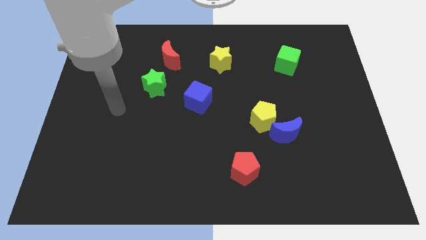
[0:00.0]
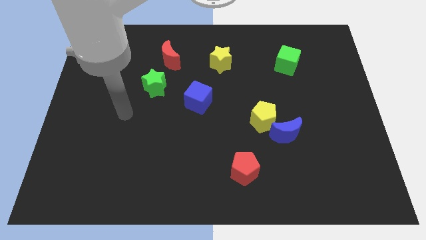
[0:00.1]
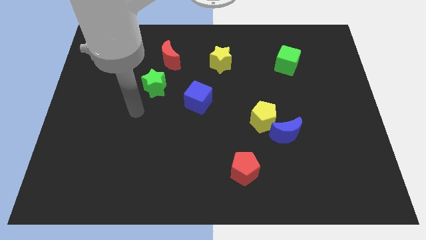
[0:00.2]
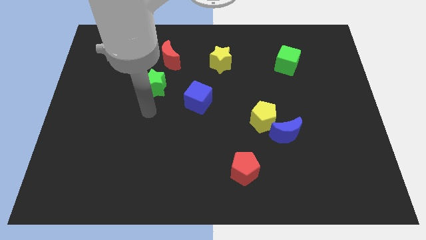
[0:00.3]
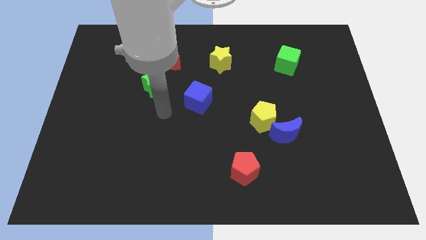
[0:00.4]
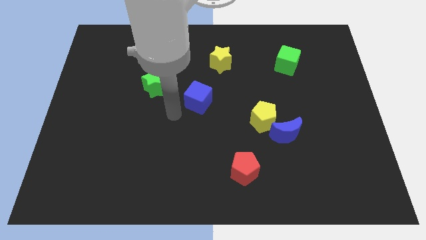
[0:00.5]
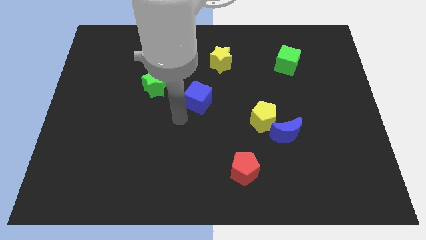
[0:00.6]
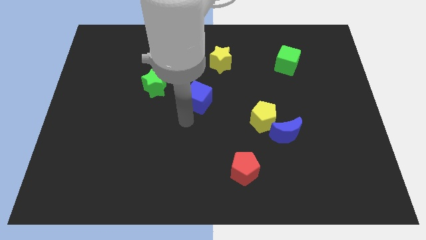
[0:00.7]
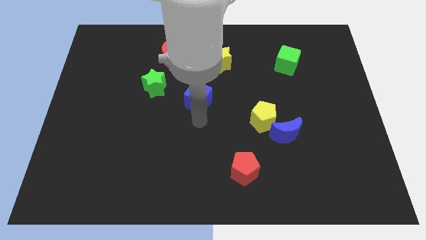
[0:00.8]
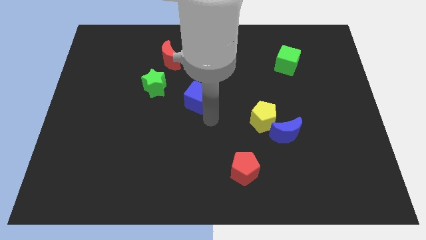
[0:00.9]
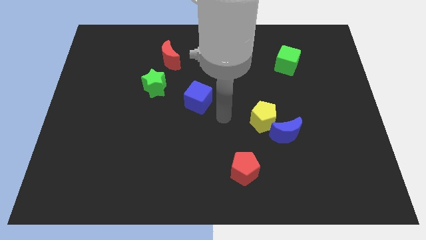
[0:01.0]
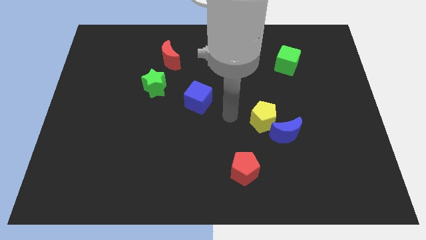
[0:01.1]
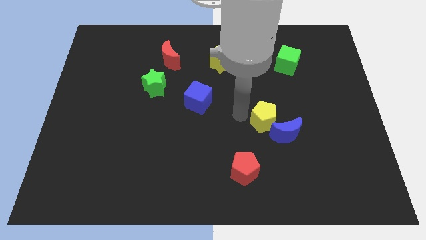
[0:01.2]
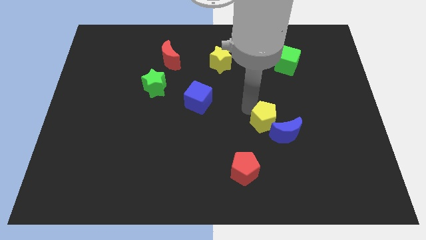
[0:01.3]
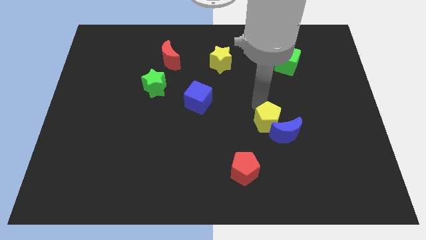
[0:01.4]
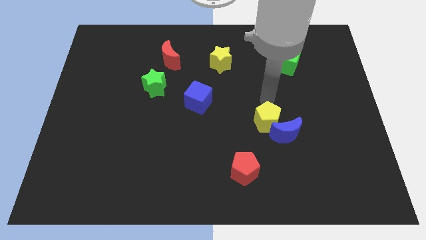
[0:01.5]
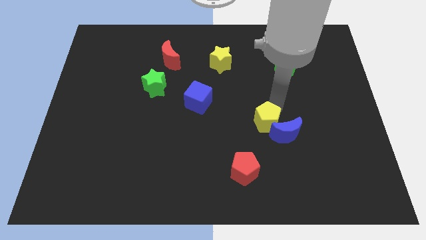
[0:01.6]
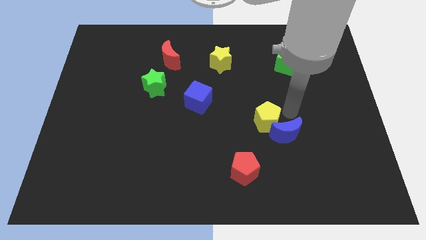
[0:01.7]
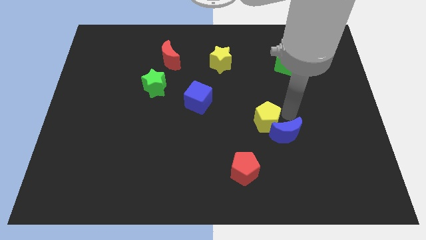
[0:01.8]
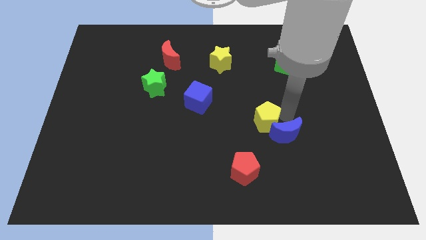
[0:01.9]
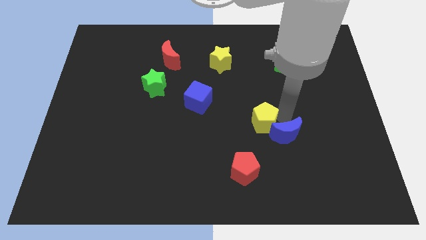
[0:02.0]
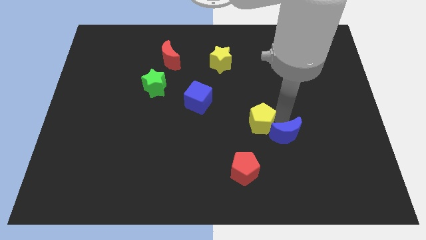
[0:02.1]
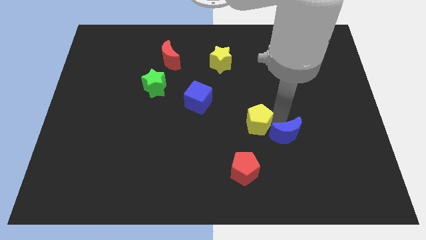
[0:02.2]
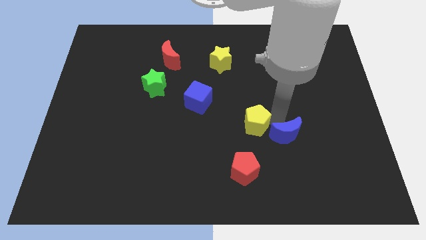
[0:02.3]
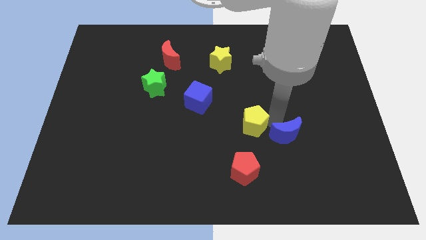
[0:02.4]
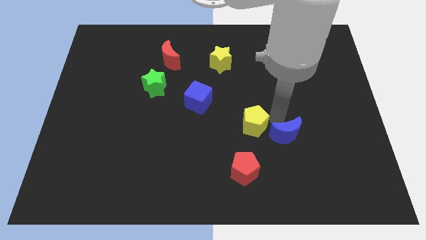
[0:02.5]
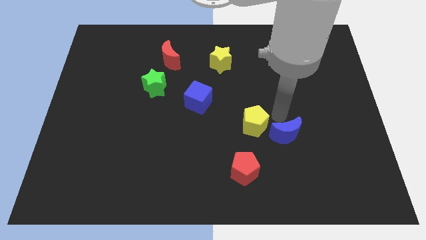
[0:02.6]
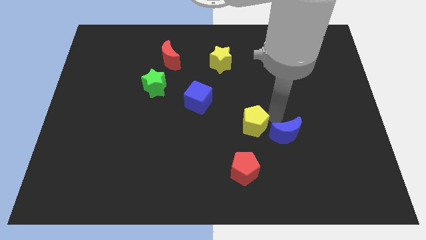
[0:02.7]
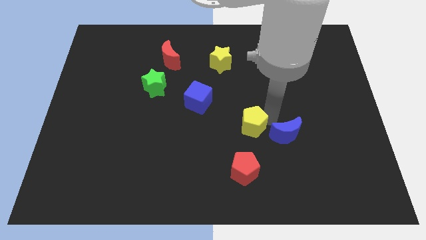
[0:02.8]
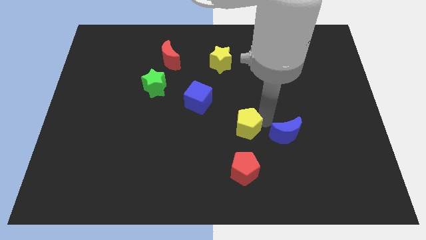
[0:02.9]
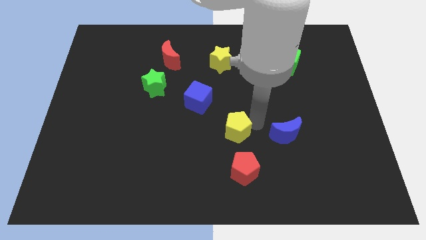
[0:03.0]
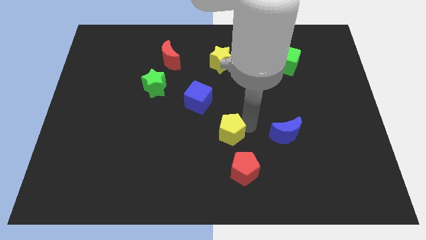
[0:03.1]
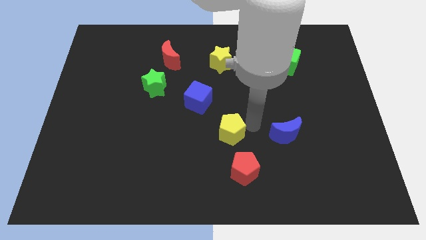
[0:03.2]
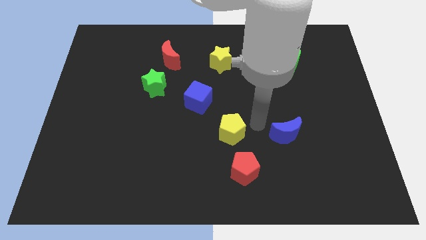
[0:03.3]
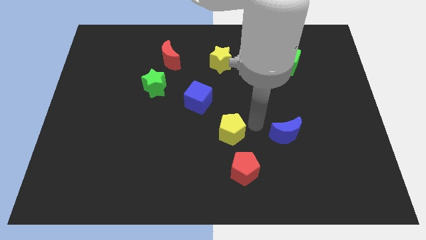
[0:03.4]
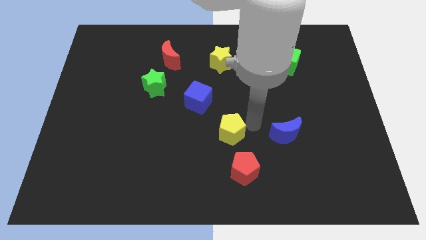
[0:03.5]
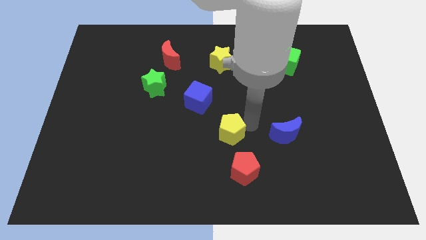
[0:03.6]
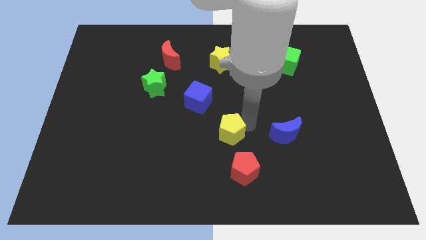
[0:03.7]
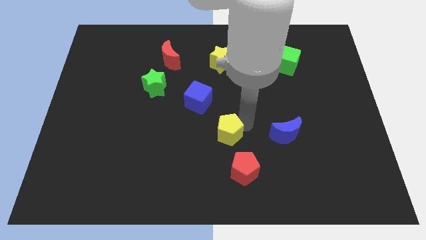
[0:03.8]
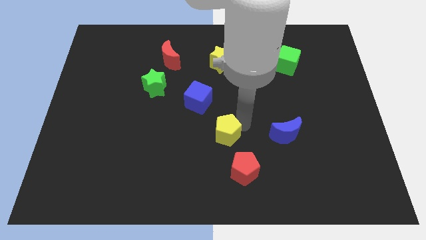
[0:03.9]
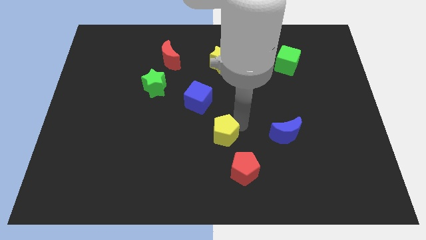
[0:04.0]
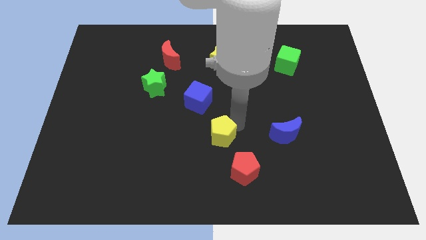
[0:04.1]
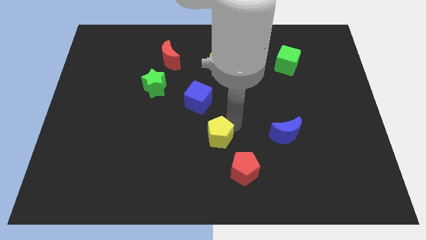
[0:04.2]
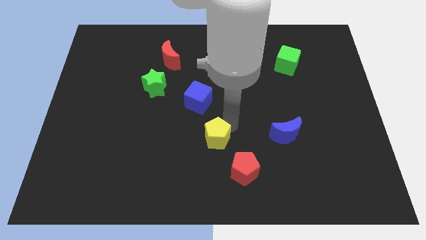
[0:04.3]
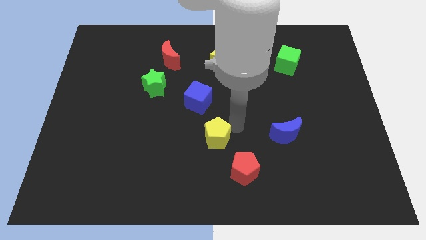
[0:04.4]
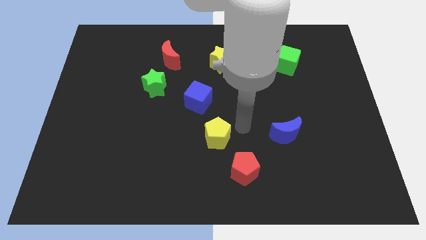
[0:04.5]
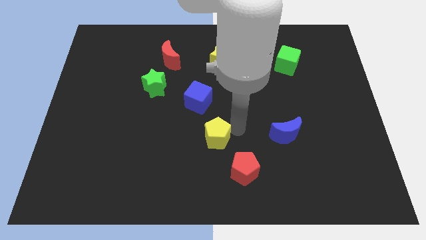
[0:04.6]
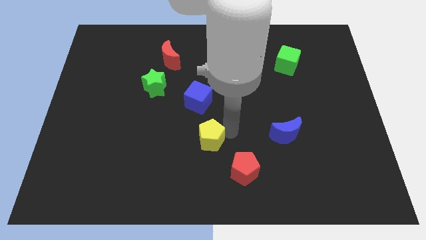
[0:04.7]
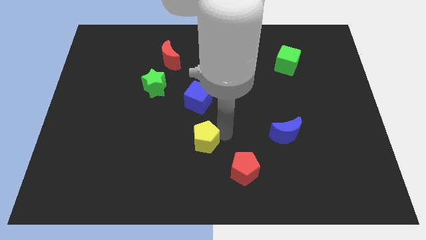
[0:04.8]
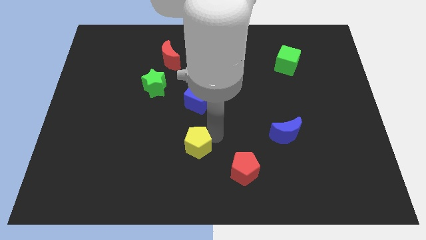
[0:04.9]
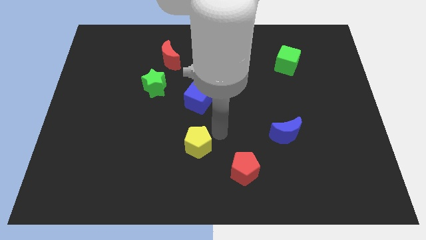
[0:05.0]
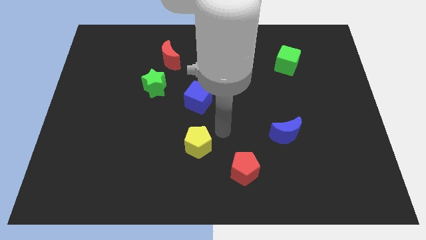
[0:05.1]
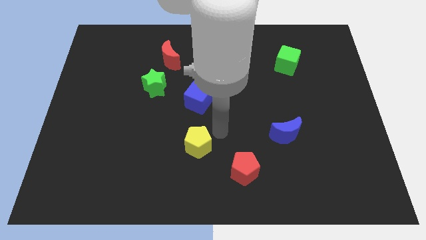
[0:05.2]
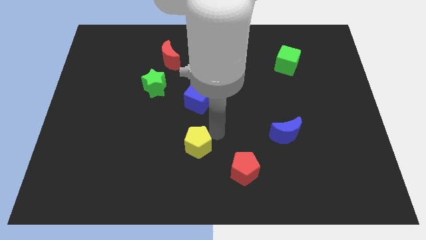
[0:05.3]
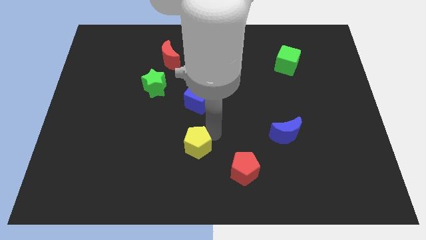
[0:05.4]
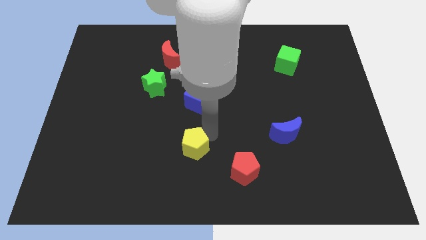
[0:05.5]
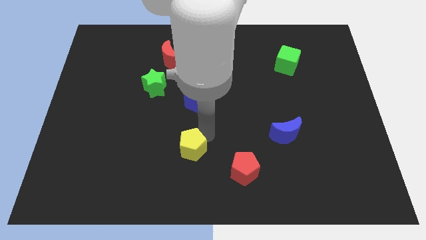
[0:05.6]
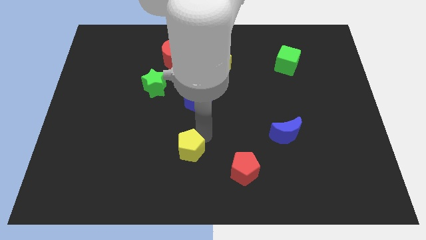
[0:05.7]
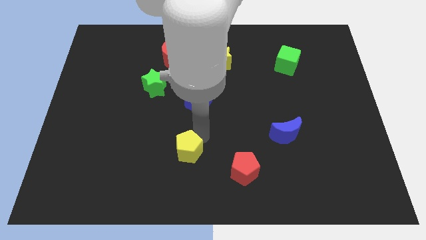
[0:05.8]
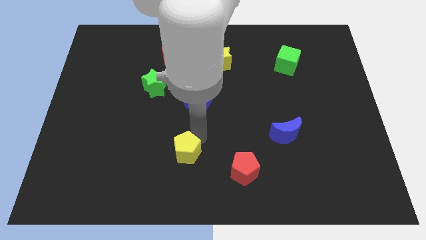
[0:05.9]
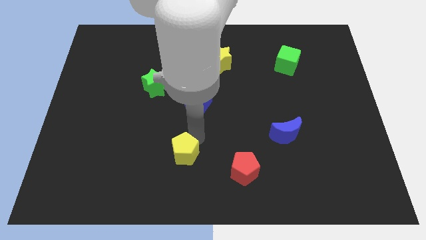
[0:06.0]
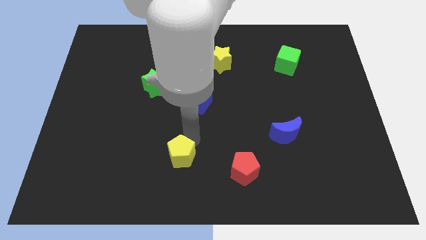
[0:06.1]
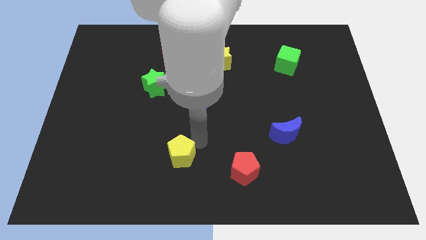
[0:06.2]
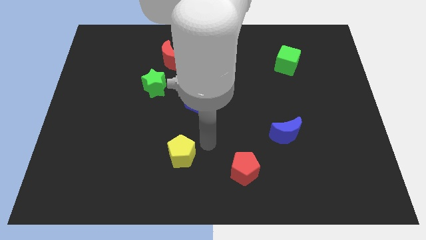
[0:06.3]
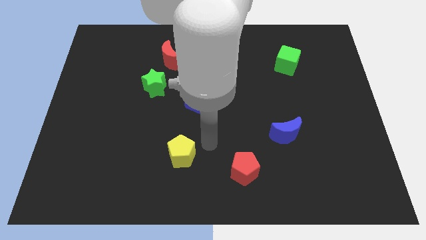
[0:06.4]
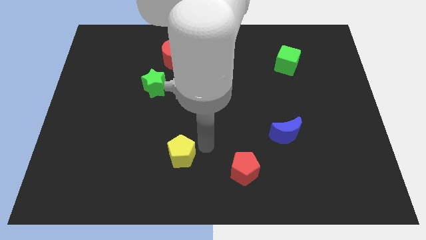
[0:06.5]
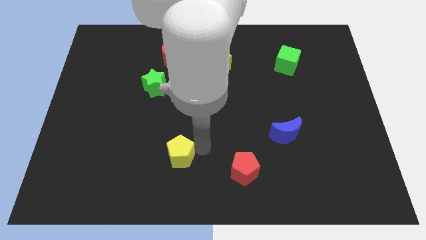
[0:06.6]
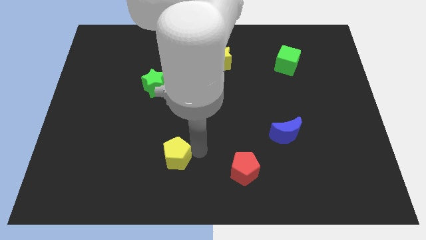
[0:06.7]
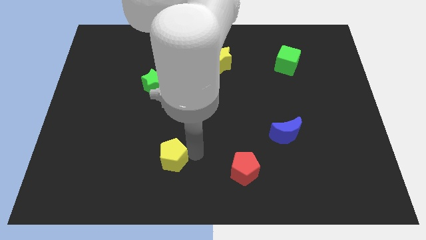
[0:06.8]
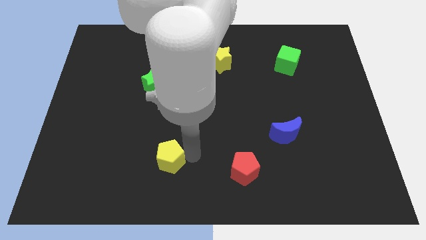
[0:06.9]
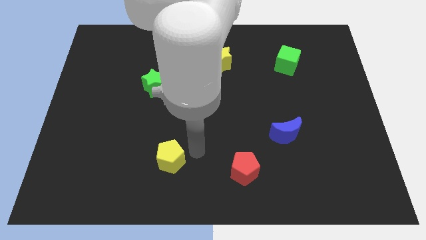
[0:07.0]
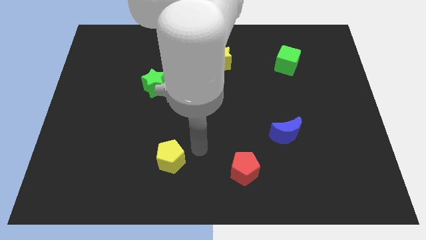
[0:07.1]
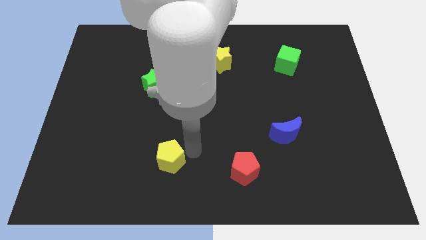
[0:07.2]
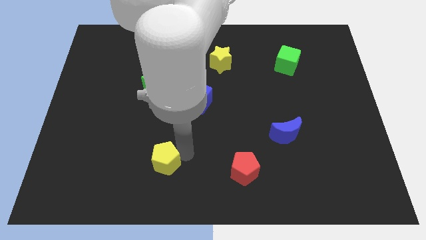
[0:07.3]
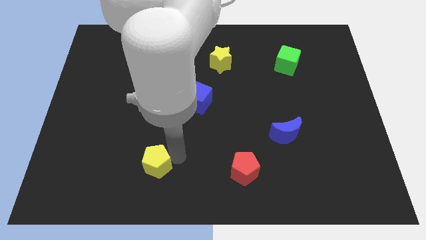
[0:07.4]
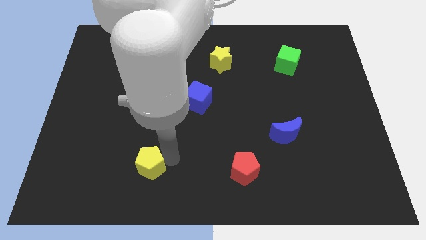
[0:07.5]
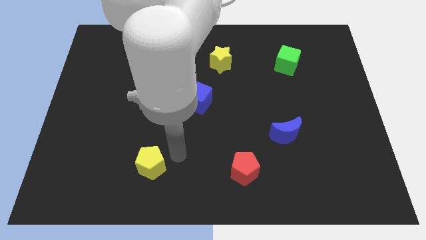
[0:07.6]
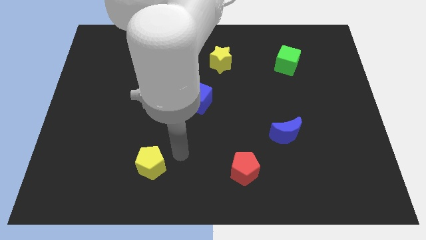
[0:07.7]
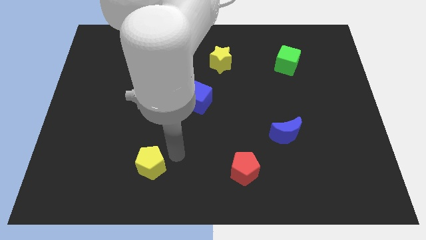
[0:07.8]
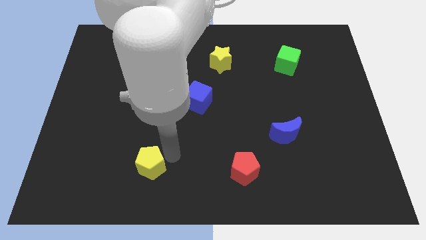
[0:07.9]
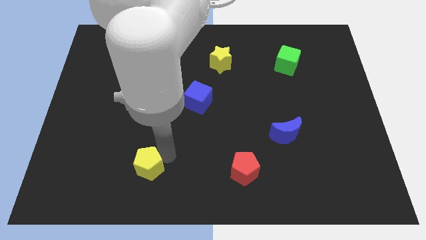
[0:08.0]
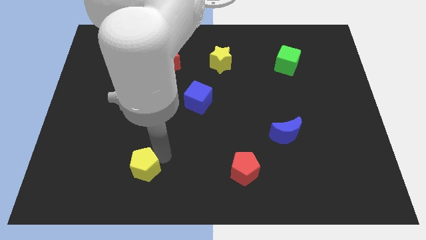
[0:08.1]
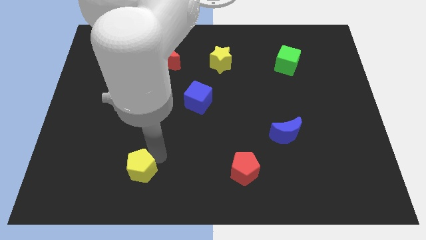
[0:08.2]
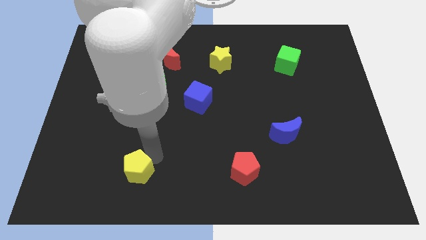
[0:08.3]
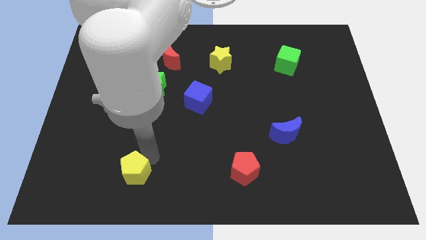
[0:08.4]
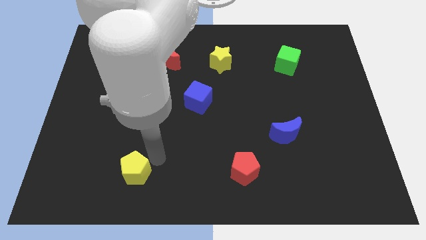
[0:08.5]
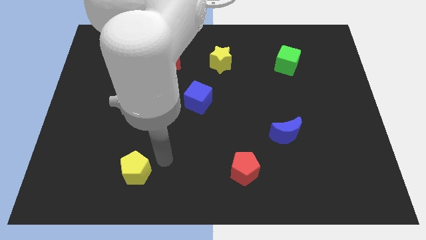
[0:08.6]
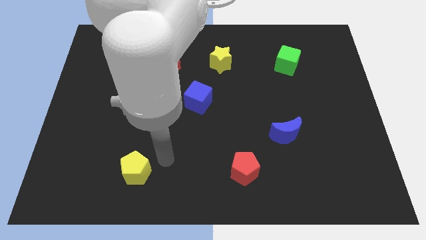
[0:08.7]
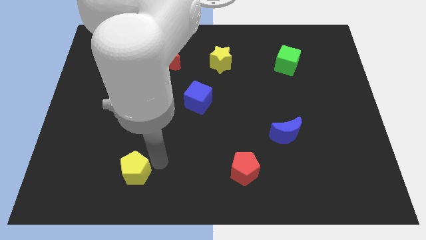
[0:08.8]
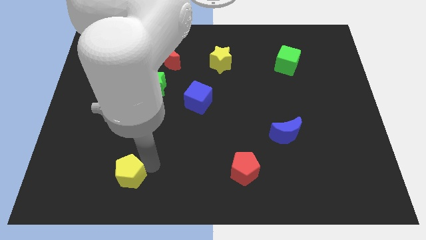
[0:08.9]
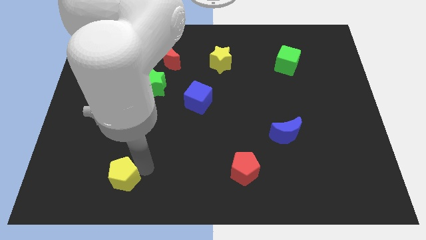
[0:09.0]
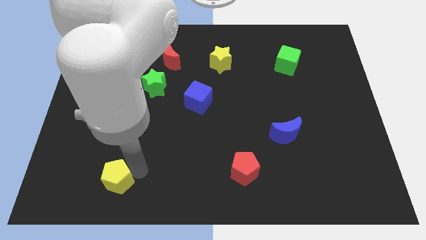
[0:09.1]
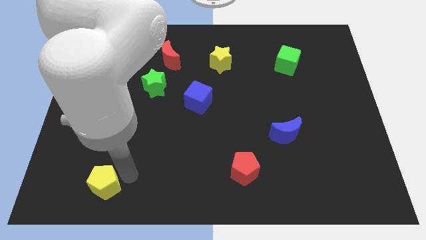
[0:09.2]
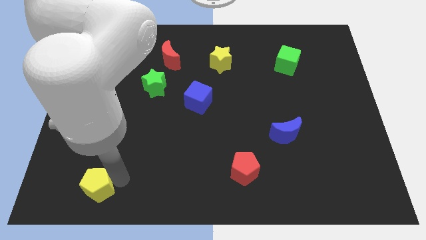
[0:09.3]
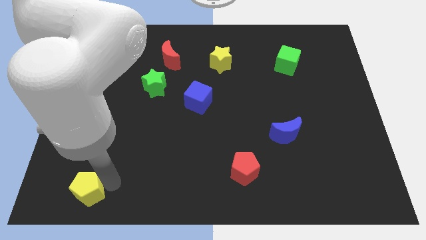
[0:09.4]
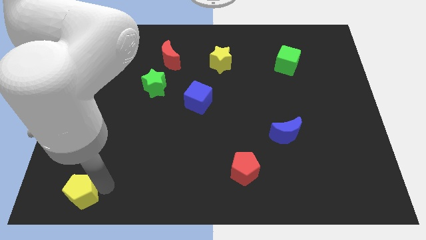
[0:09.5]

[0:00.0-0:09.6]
move the yellow pentagon to the bottom left
